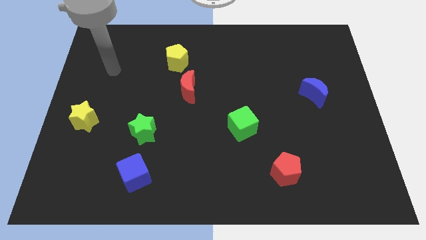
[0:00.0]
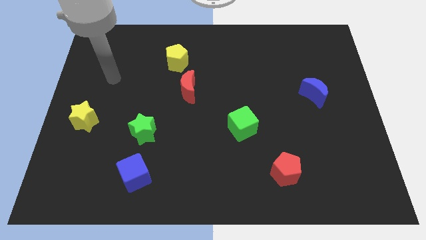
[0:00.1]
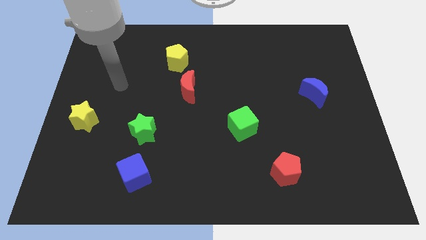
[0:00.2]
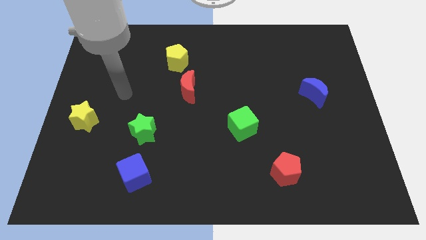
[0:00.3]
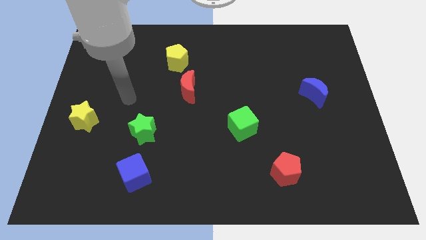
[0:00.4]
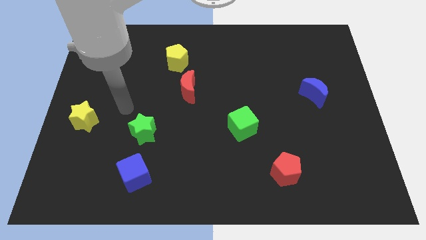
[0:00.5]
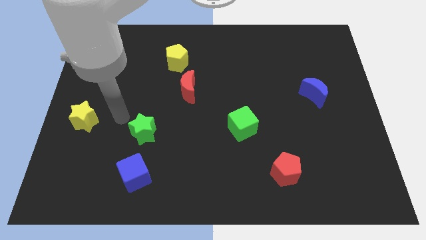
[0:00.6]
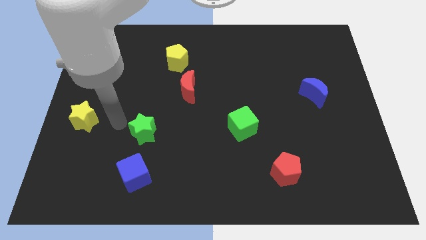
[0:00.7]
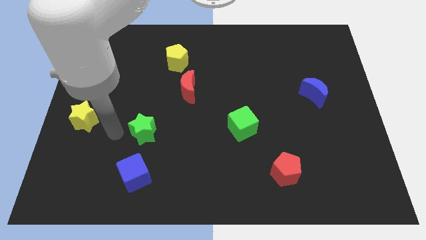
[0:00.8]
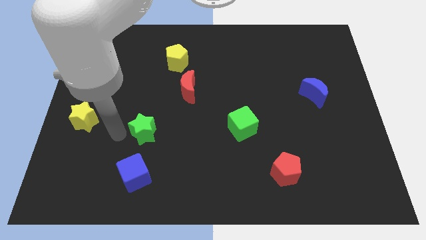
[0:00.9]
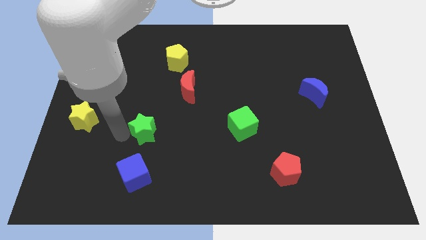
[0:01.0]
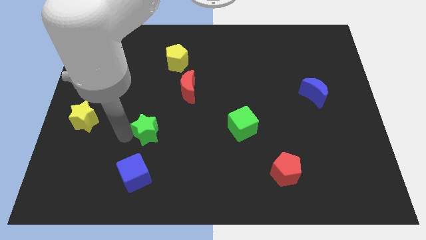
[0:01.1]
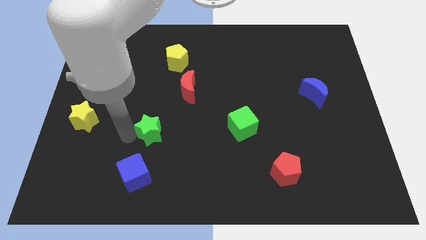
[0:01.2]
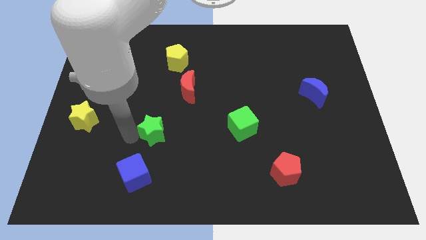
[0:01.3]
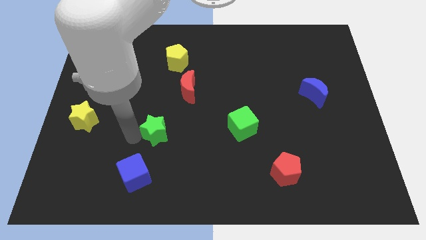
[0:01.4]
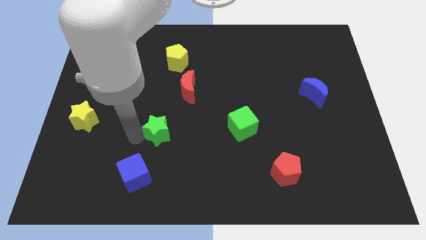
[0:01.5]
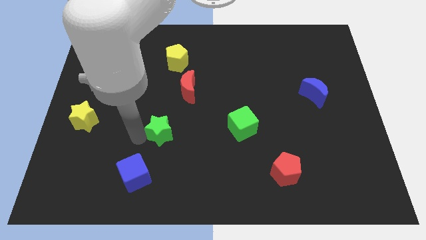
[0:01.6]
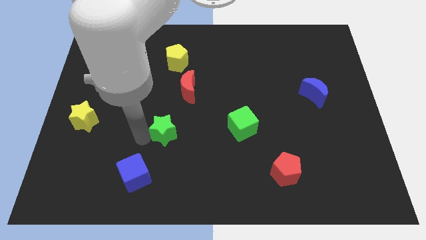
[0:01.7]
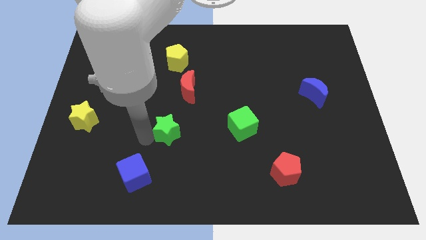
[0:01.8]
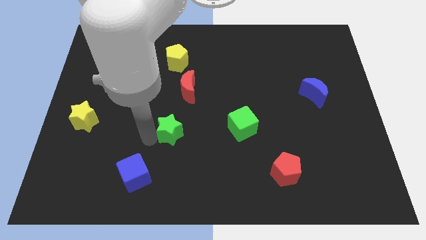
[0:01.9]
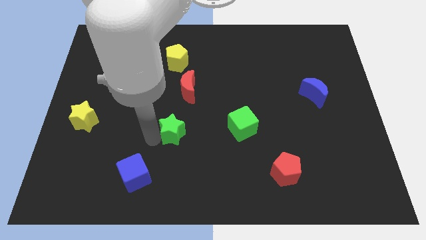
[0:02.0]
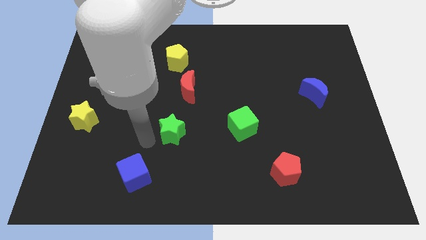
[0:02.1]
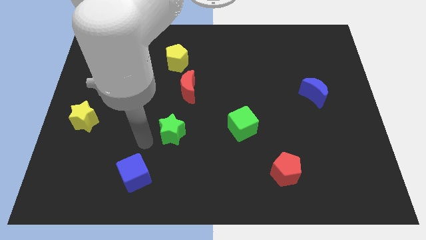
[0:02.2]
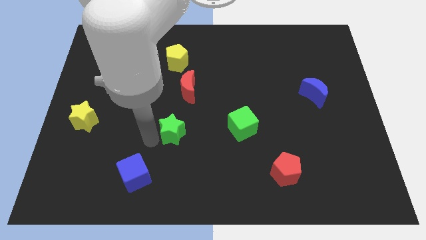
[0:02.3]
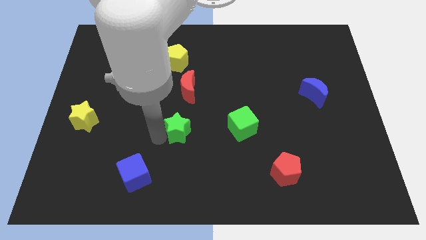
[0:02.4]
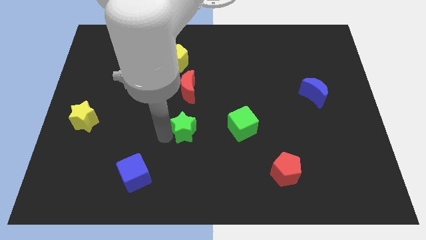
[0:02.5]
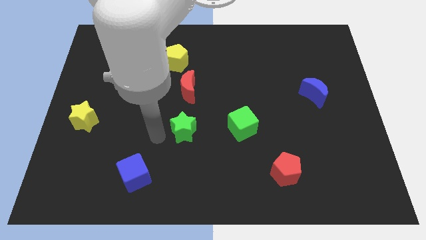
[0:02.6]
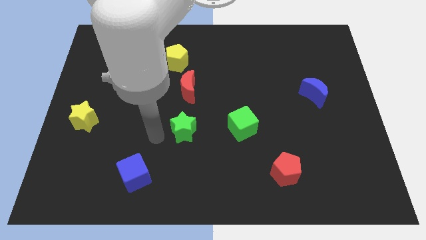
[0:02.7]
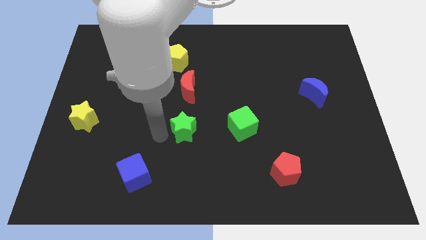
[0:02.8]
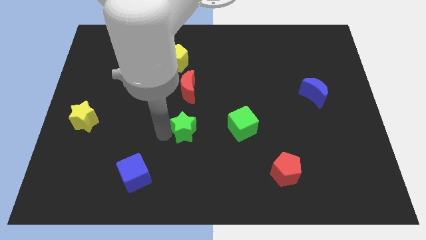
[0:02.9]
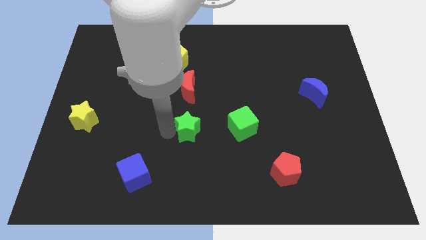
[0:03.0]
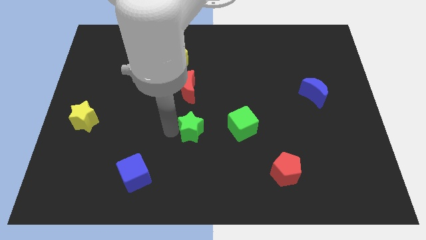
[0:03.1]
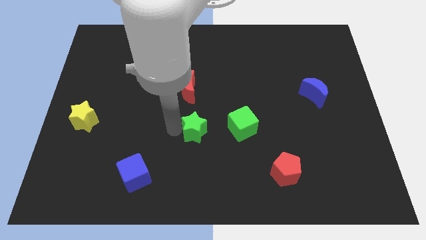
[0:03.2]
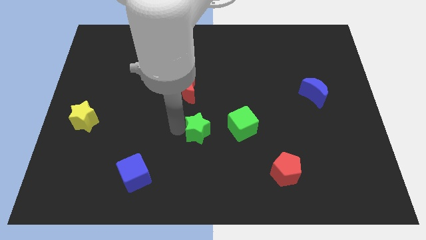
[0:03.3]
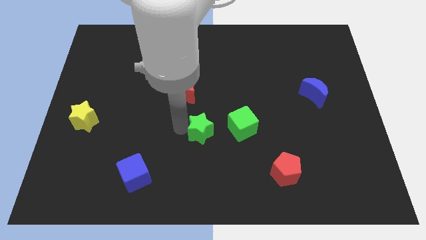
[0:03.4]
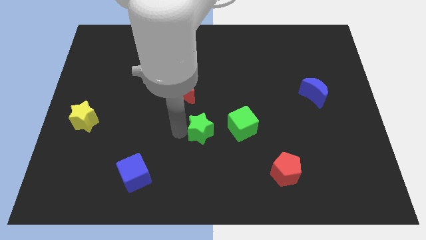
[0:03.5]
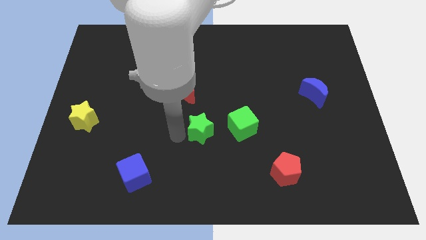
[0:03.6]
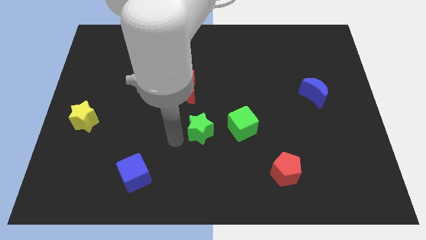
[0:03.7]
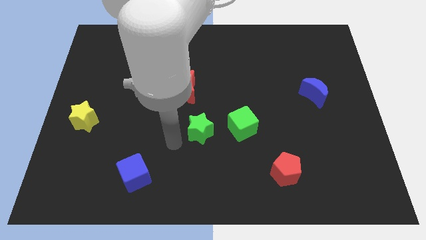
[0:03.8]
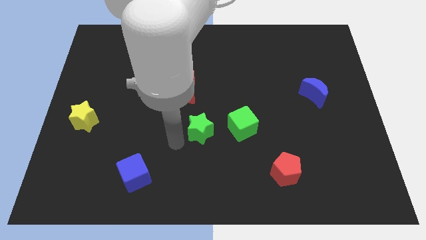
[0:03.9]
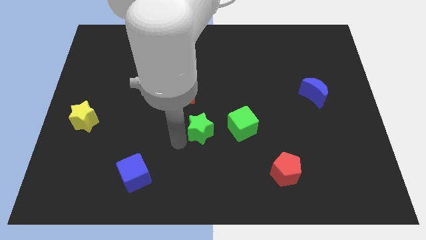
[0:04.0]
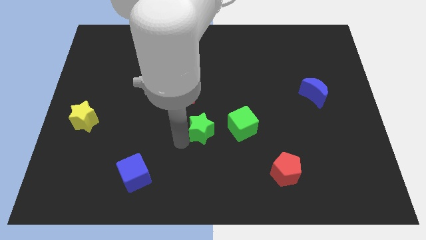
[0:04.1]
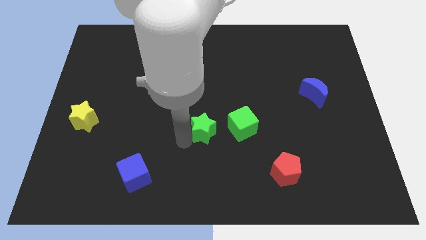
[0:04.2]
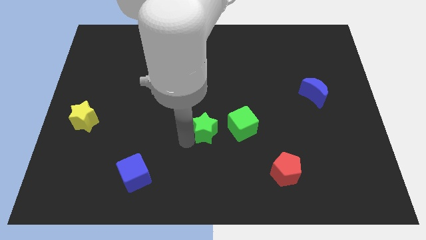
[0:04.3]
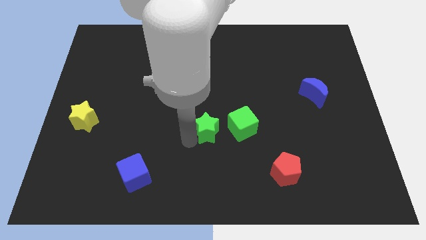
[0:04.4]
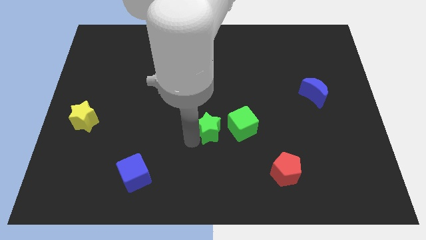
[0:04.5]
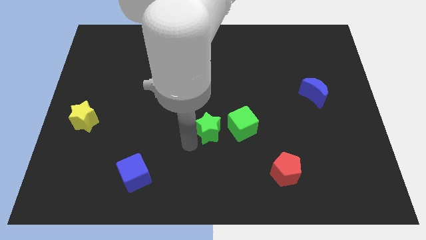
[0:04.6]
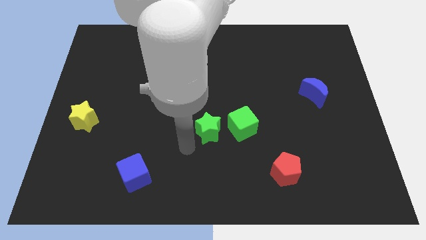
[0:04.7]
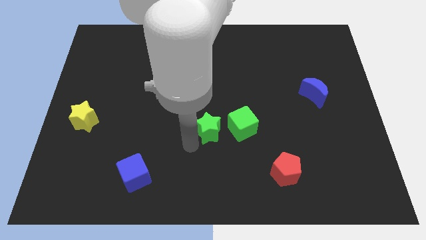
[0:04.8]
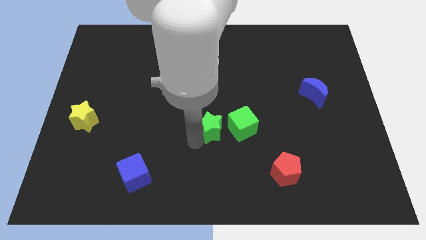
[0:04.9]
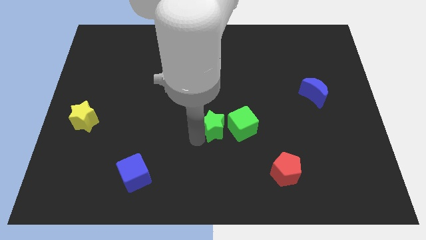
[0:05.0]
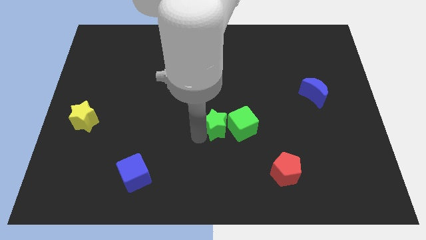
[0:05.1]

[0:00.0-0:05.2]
push the green star to the green cube

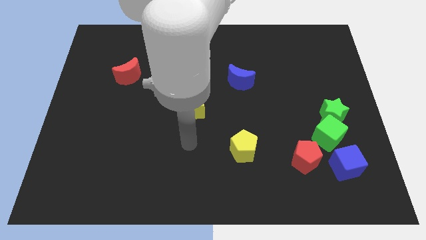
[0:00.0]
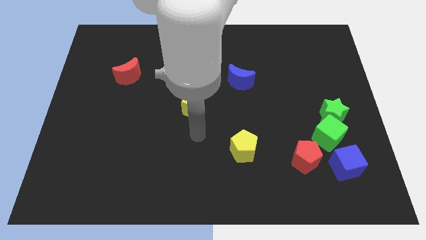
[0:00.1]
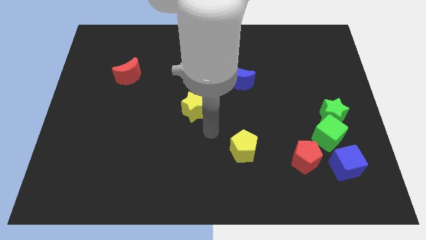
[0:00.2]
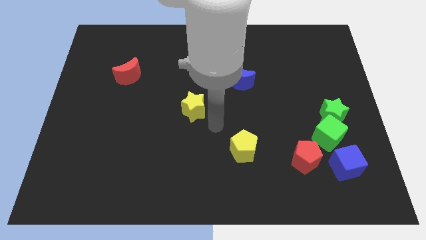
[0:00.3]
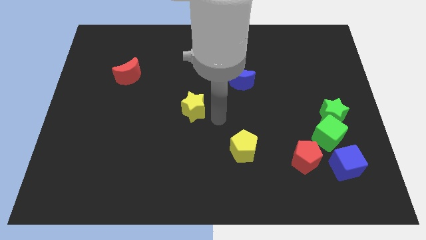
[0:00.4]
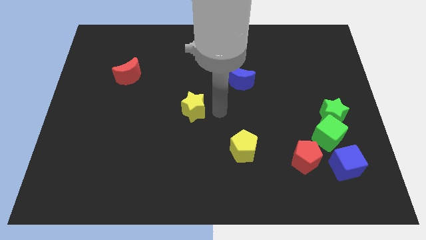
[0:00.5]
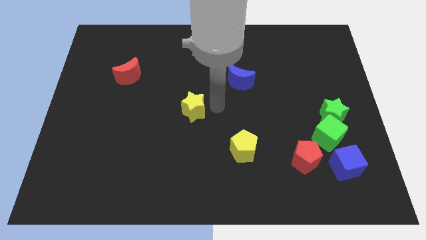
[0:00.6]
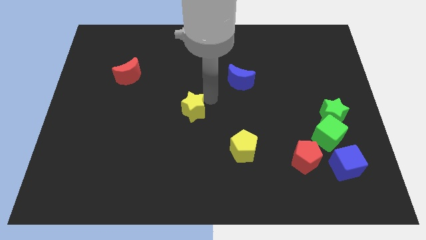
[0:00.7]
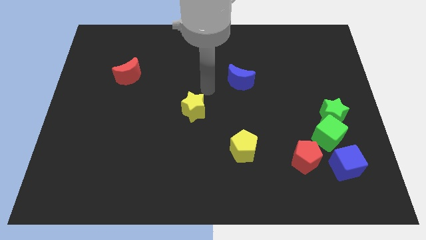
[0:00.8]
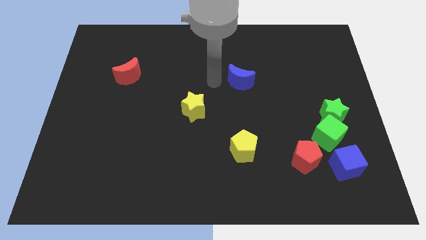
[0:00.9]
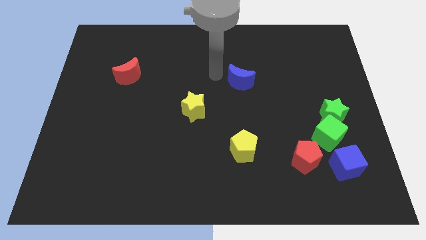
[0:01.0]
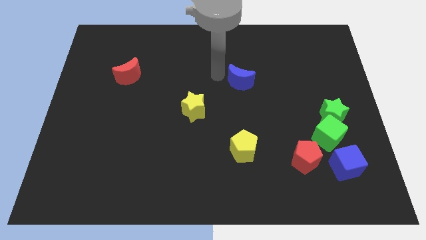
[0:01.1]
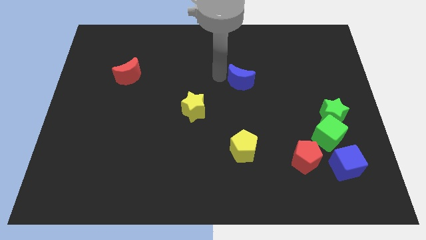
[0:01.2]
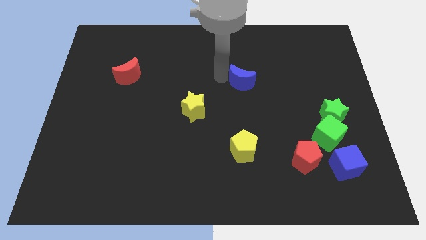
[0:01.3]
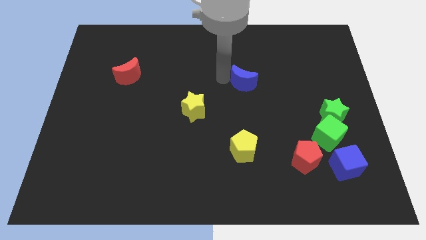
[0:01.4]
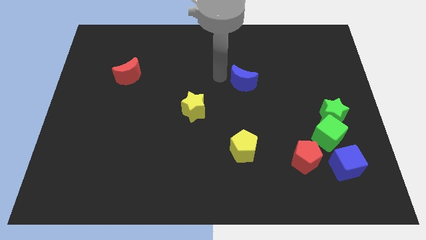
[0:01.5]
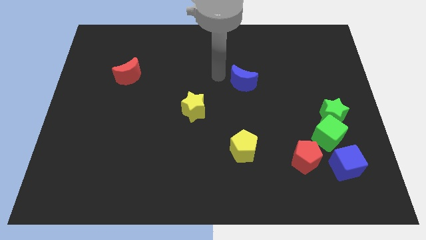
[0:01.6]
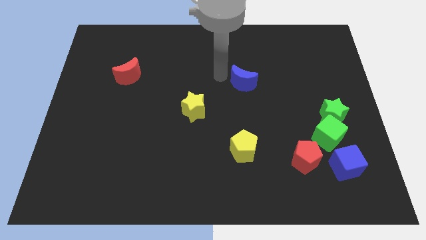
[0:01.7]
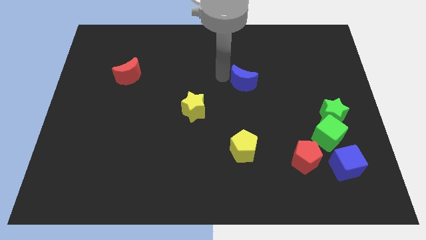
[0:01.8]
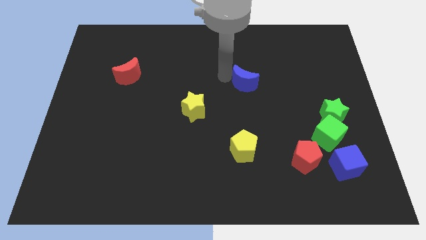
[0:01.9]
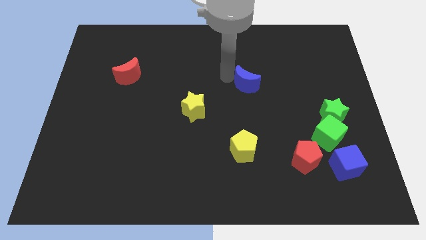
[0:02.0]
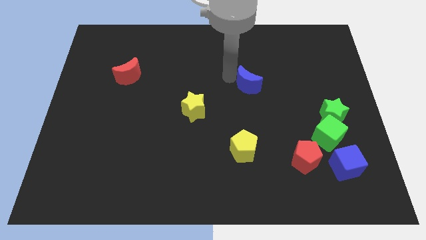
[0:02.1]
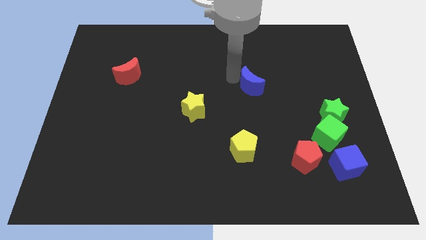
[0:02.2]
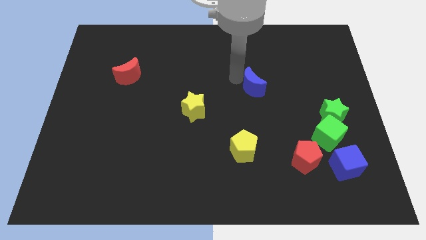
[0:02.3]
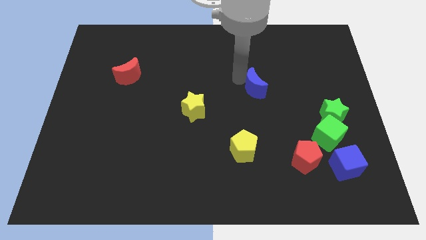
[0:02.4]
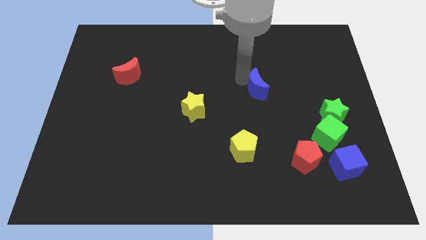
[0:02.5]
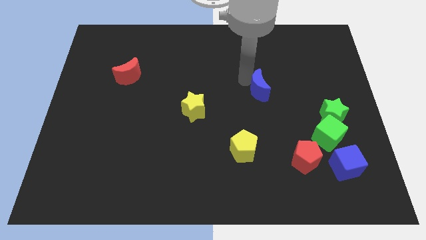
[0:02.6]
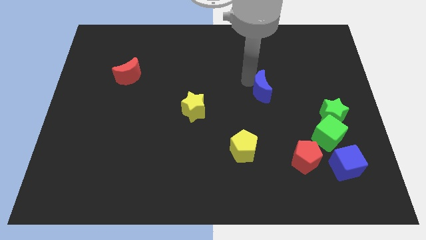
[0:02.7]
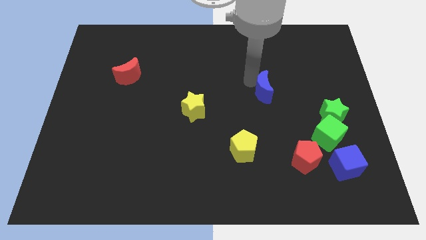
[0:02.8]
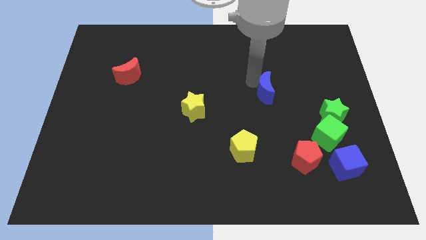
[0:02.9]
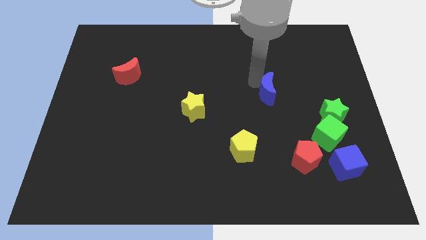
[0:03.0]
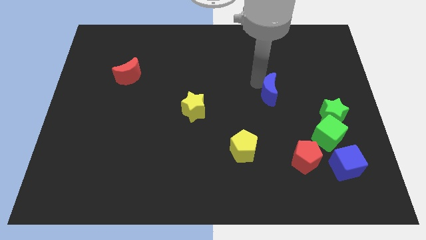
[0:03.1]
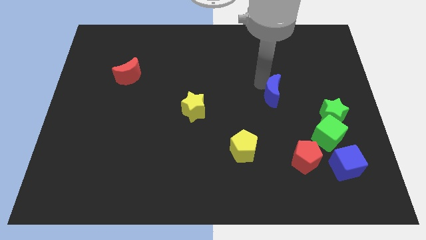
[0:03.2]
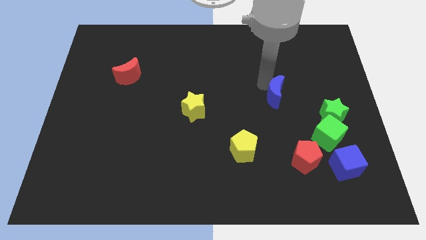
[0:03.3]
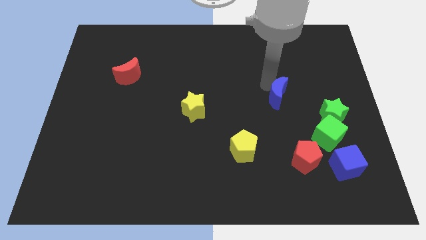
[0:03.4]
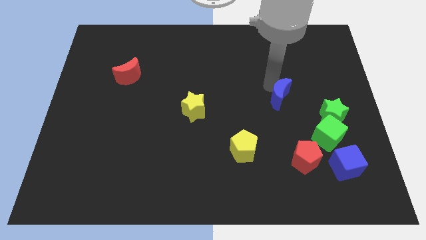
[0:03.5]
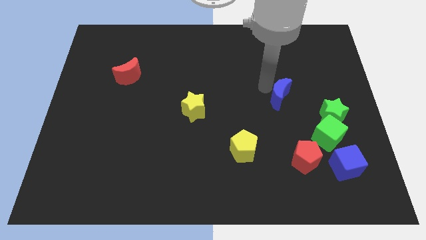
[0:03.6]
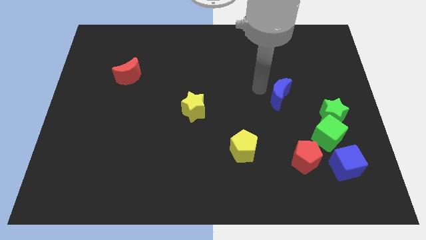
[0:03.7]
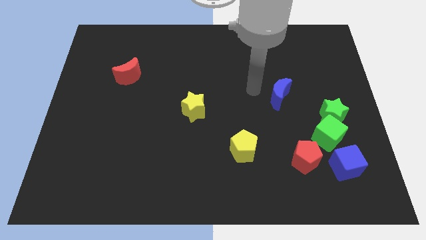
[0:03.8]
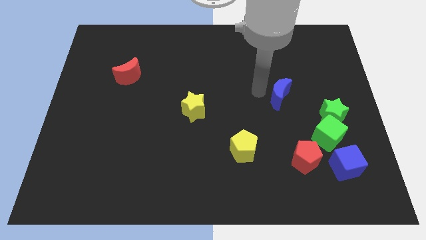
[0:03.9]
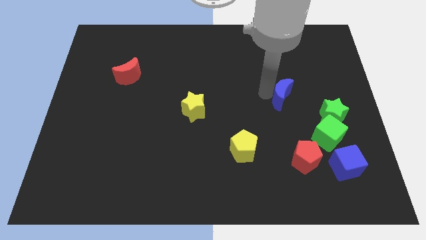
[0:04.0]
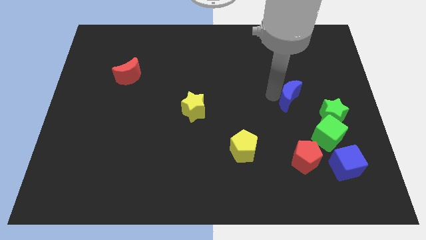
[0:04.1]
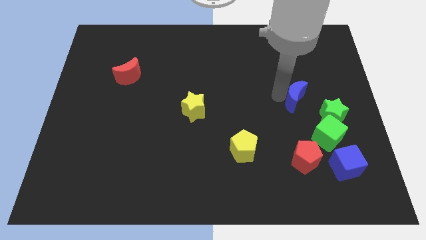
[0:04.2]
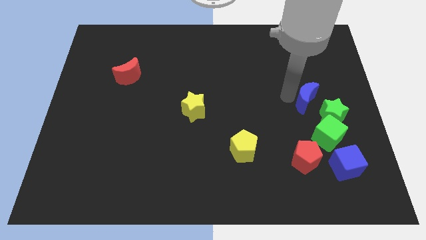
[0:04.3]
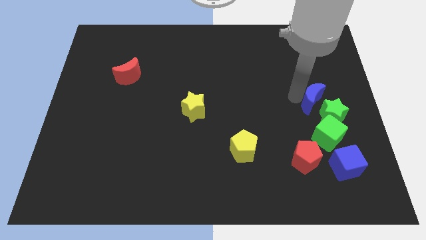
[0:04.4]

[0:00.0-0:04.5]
move the blue moon to the green star
